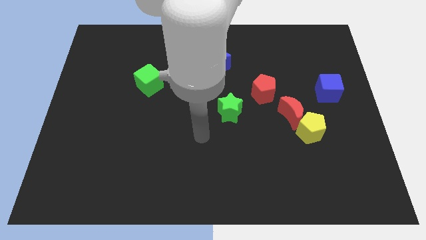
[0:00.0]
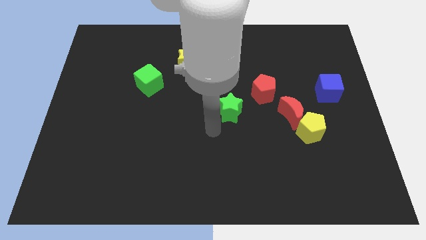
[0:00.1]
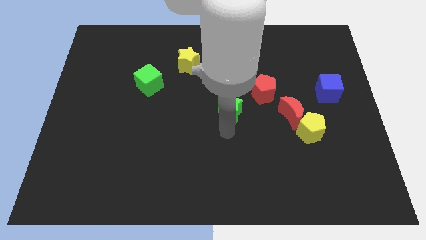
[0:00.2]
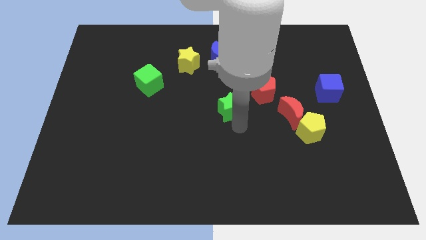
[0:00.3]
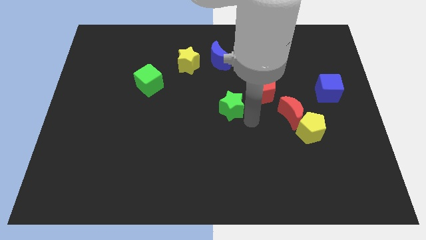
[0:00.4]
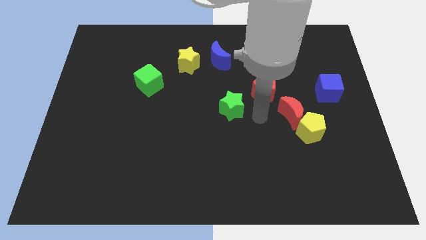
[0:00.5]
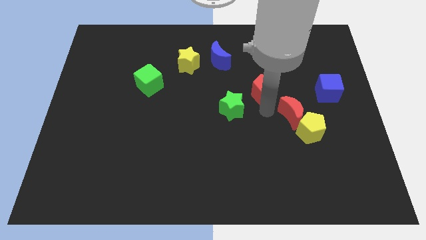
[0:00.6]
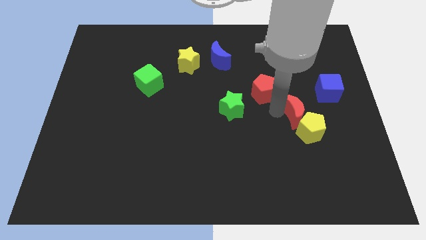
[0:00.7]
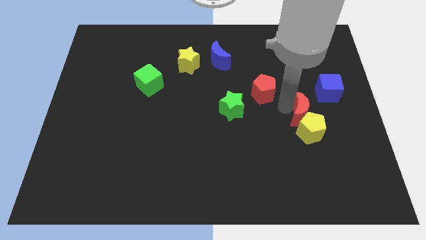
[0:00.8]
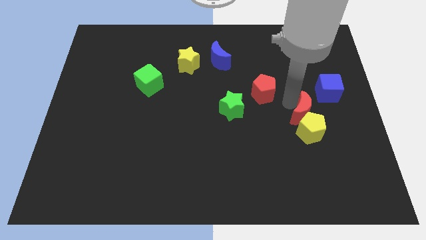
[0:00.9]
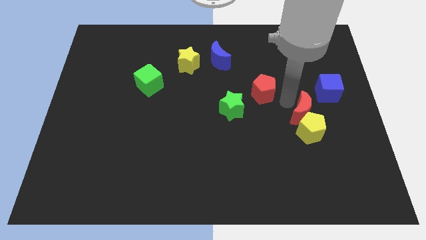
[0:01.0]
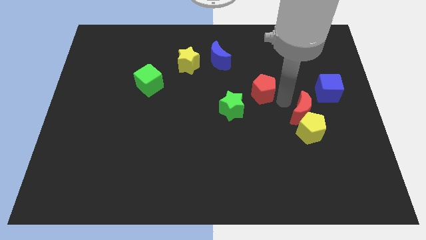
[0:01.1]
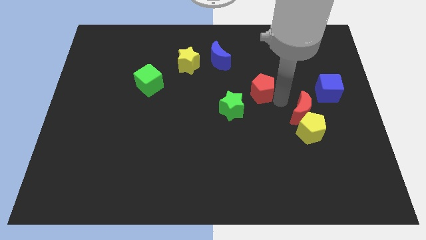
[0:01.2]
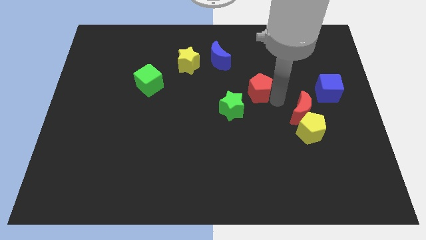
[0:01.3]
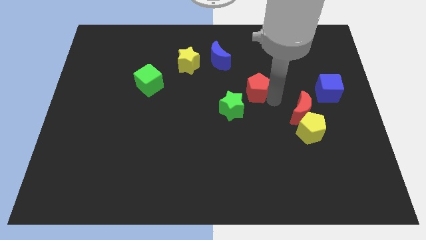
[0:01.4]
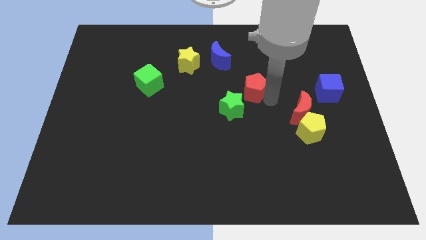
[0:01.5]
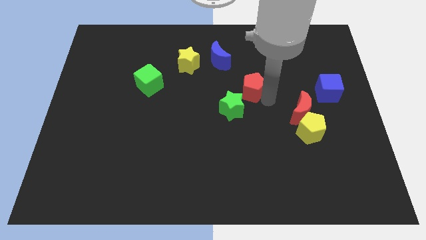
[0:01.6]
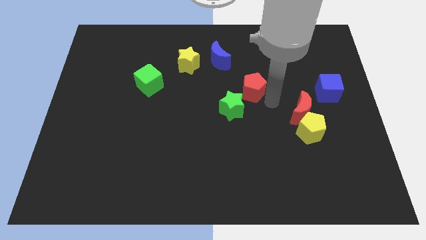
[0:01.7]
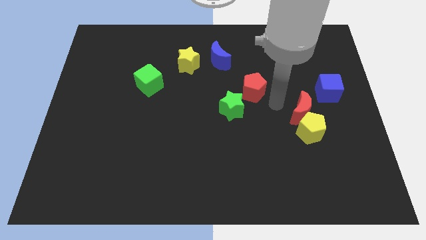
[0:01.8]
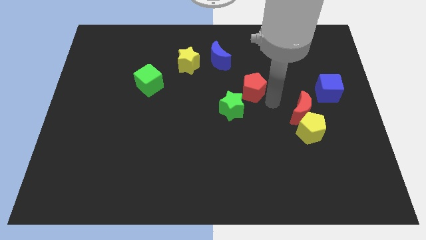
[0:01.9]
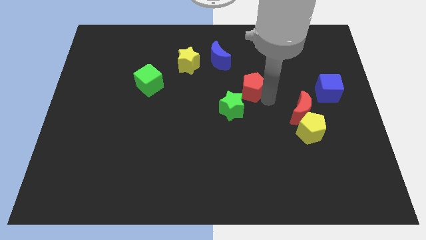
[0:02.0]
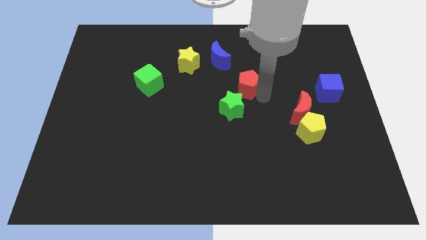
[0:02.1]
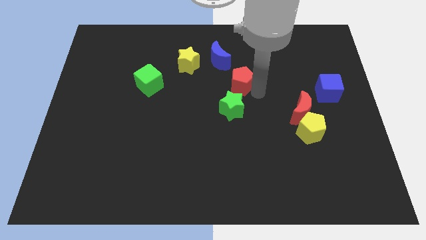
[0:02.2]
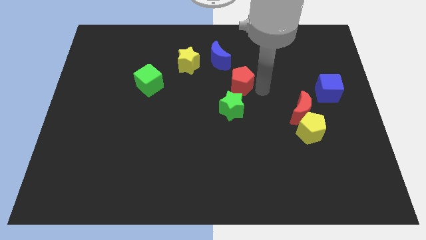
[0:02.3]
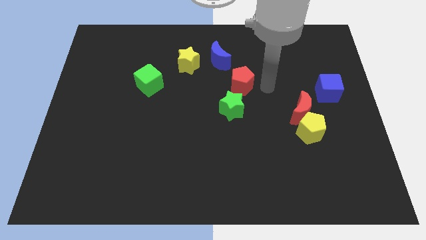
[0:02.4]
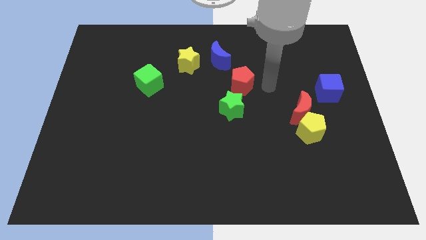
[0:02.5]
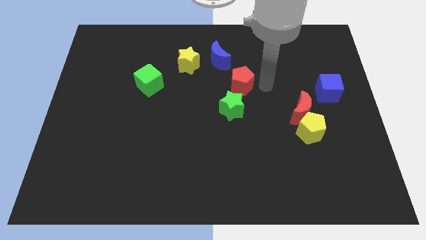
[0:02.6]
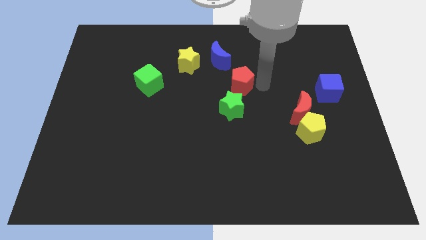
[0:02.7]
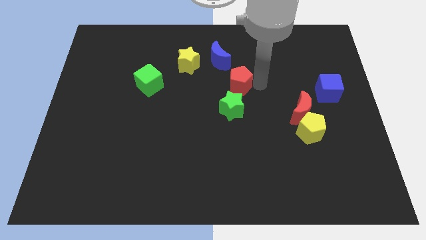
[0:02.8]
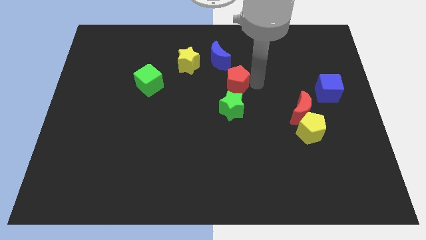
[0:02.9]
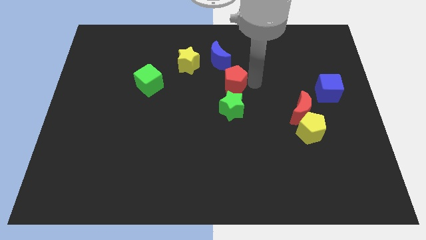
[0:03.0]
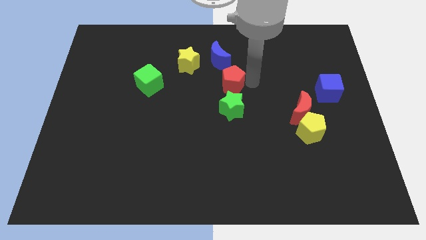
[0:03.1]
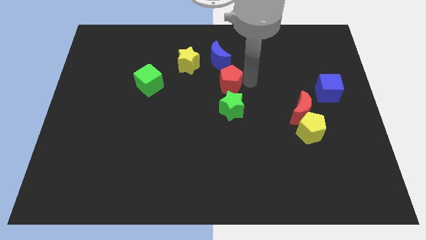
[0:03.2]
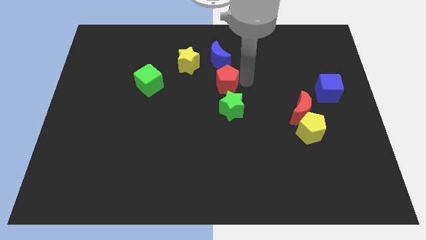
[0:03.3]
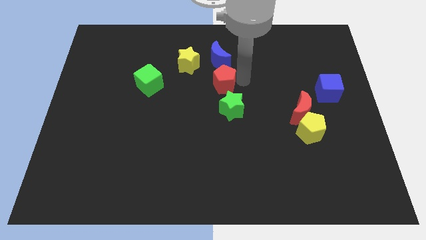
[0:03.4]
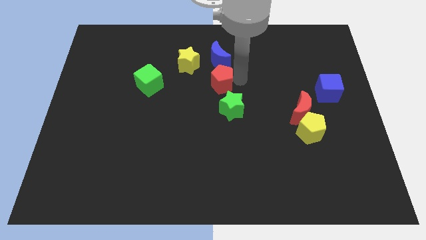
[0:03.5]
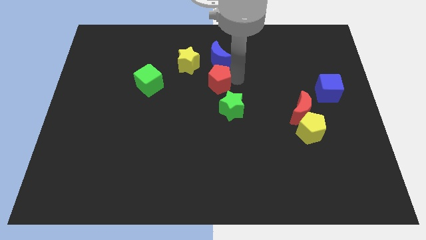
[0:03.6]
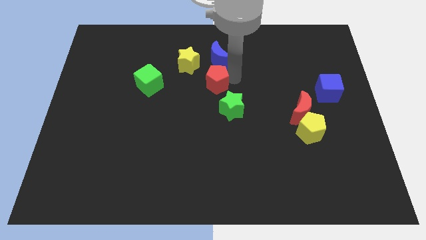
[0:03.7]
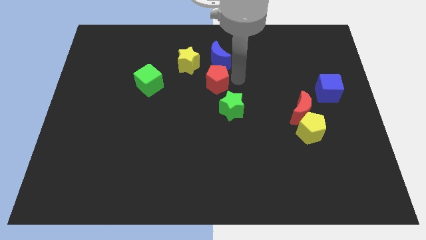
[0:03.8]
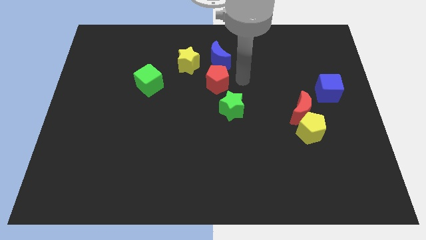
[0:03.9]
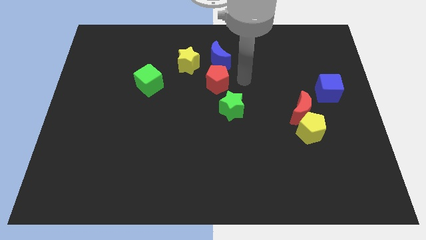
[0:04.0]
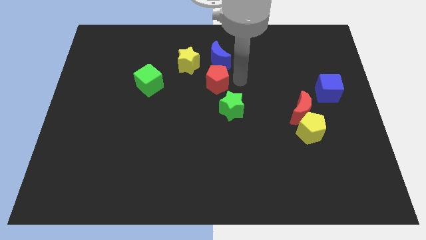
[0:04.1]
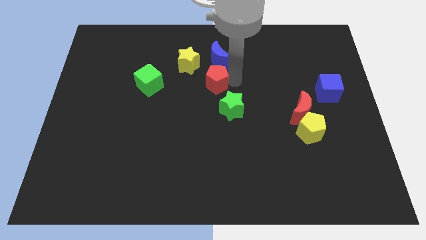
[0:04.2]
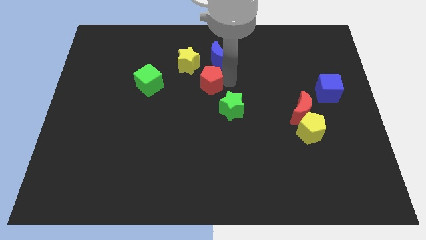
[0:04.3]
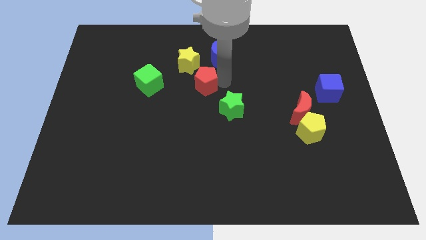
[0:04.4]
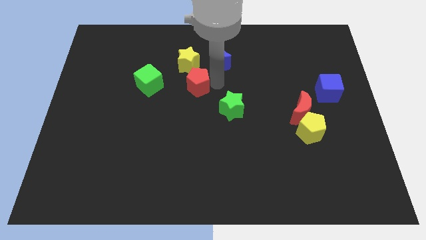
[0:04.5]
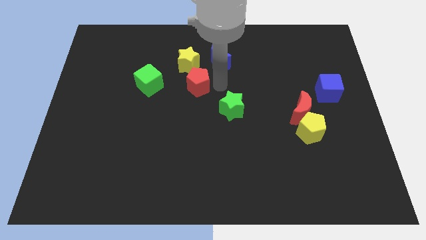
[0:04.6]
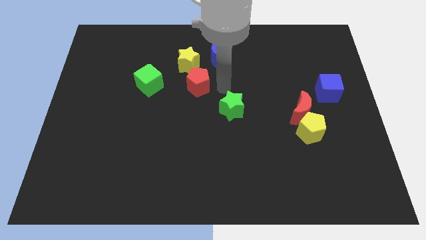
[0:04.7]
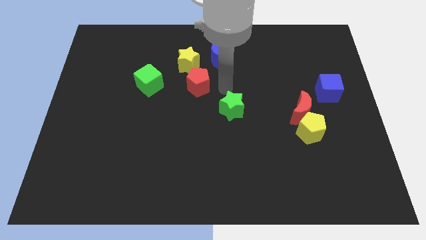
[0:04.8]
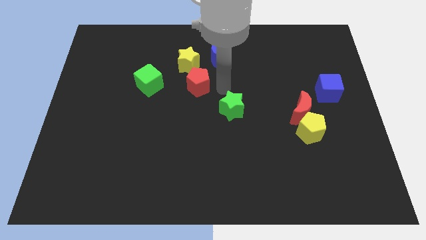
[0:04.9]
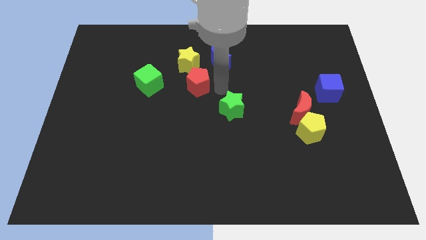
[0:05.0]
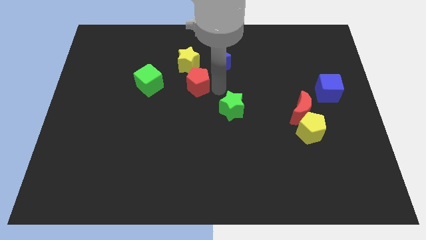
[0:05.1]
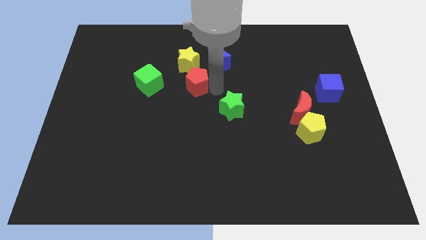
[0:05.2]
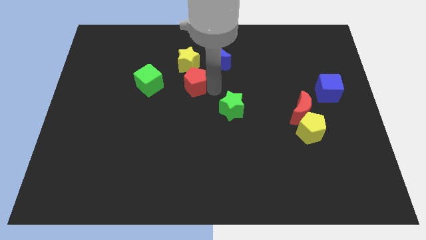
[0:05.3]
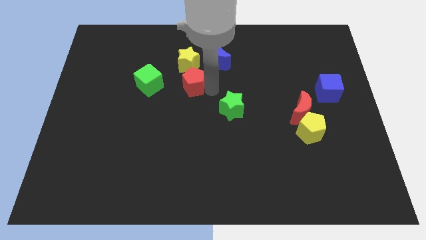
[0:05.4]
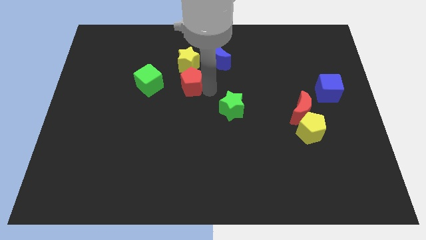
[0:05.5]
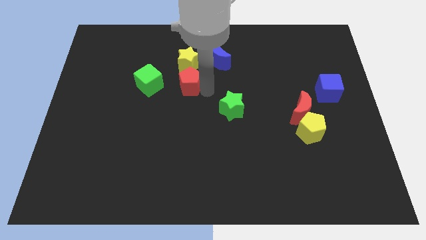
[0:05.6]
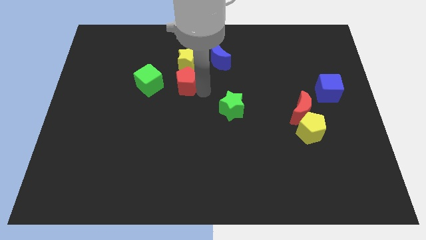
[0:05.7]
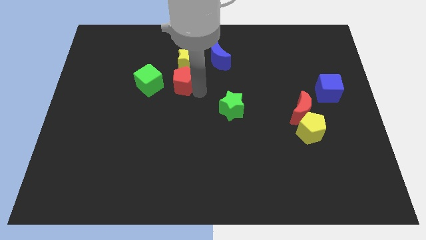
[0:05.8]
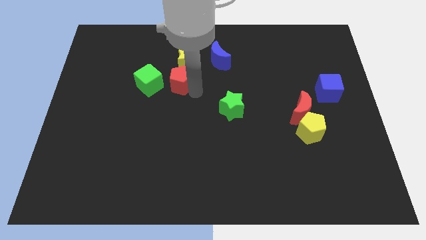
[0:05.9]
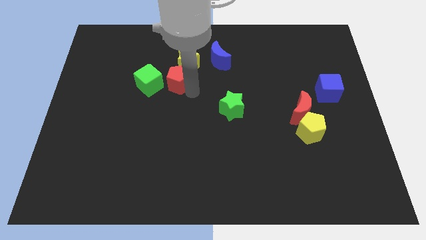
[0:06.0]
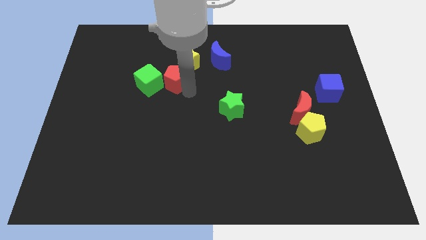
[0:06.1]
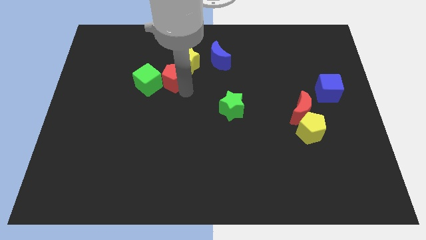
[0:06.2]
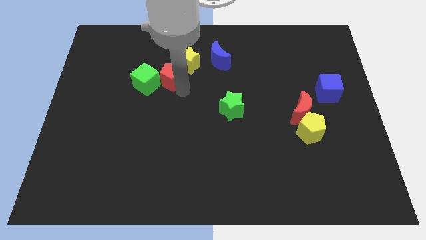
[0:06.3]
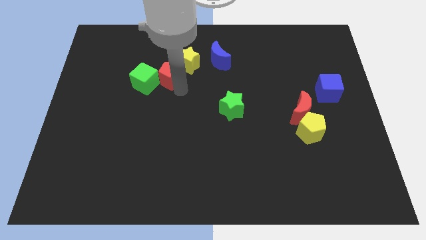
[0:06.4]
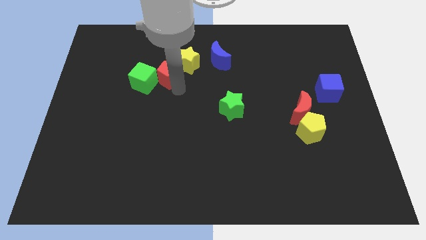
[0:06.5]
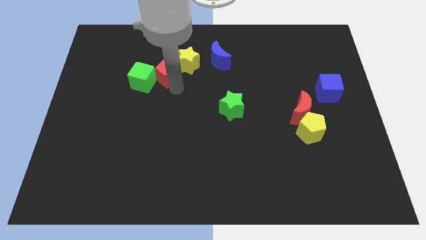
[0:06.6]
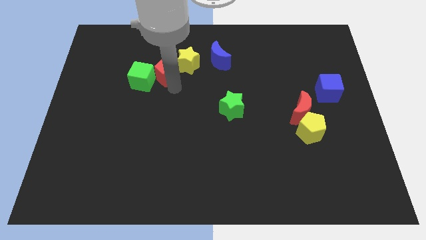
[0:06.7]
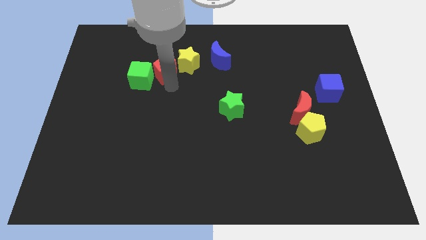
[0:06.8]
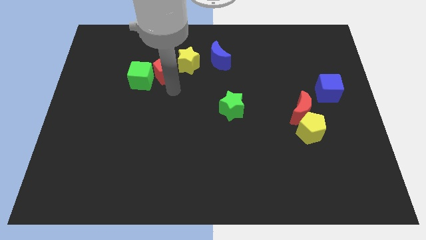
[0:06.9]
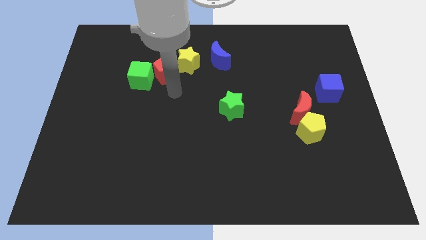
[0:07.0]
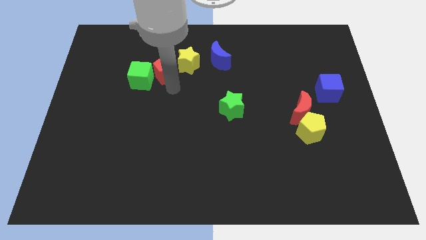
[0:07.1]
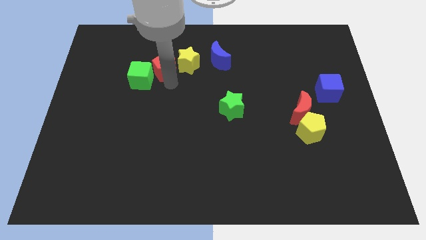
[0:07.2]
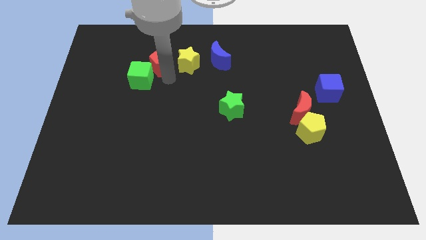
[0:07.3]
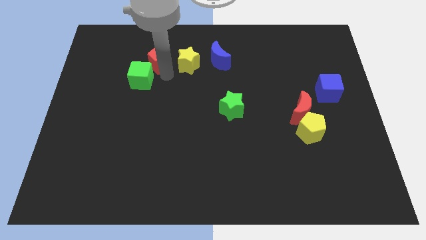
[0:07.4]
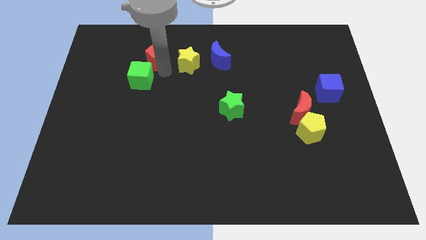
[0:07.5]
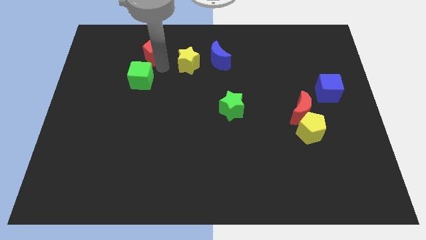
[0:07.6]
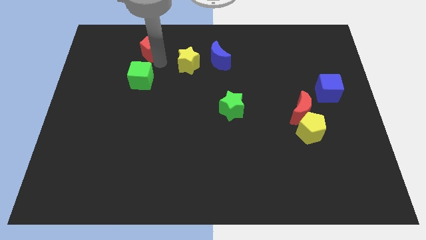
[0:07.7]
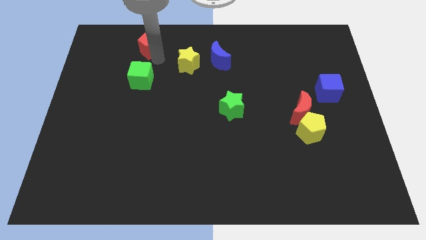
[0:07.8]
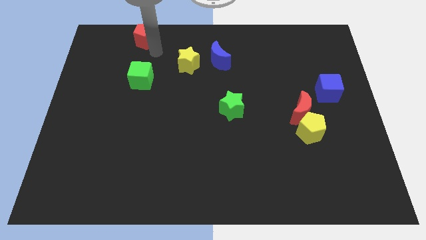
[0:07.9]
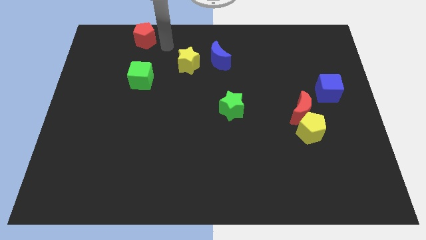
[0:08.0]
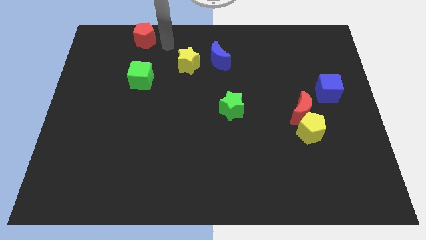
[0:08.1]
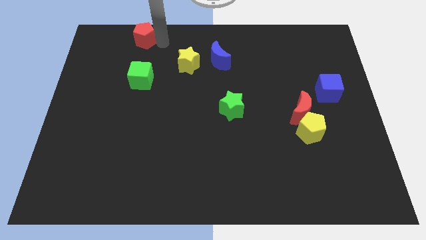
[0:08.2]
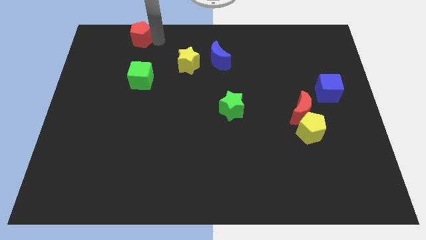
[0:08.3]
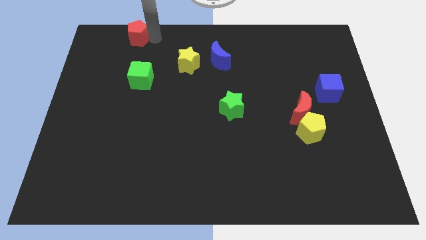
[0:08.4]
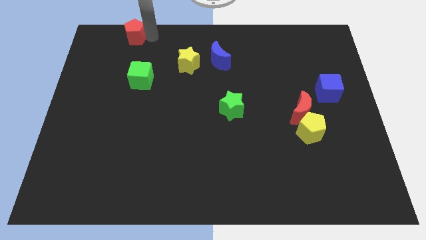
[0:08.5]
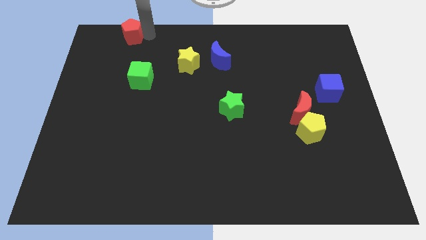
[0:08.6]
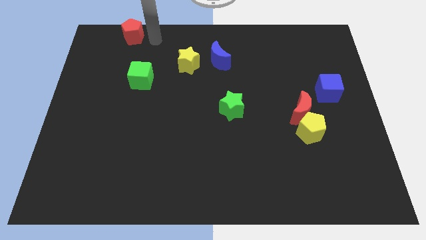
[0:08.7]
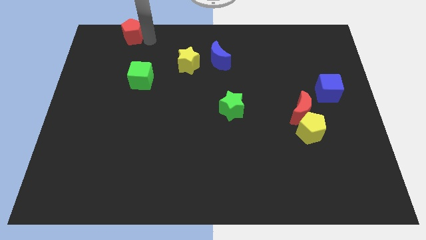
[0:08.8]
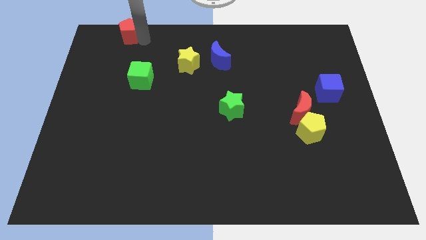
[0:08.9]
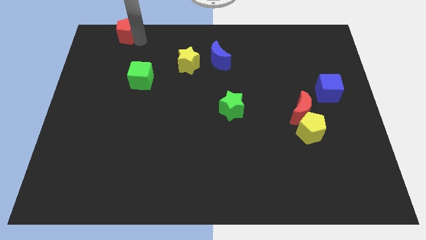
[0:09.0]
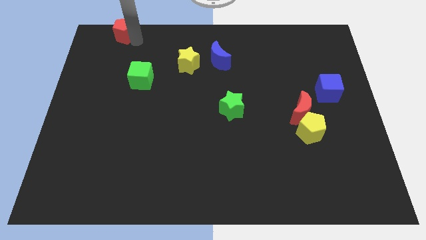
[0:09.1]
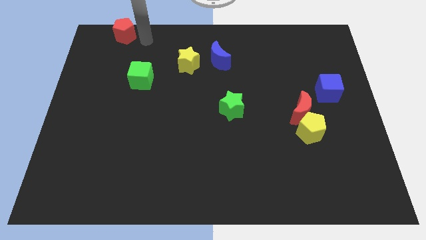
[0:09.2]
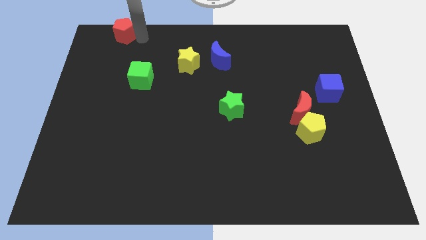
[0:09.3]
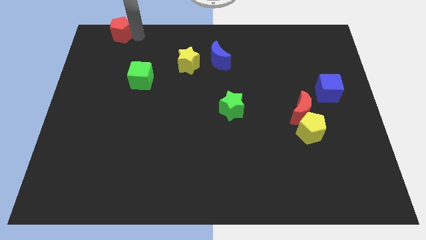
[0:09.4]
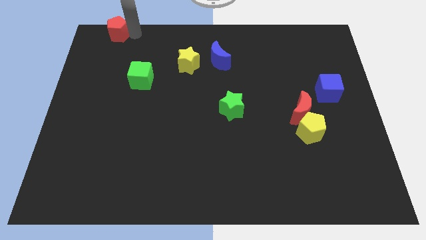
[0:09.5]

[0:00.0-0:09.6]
push the red pentagon to the top left
